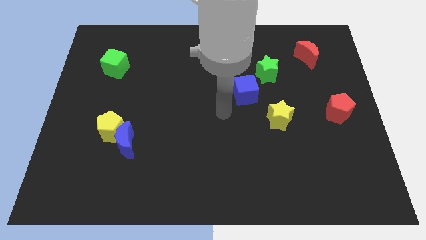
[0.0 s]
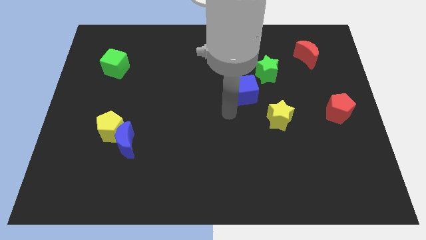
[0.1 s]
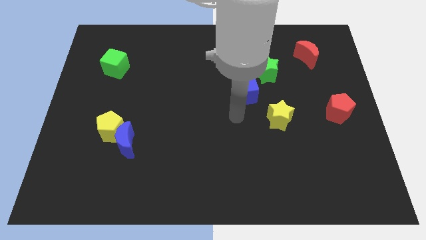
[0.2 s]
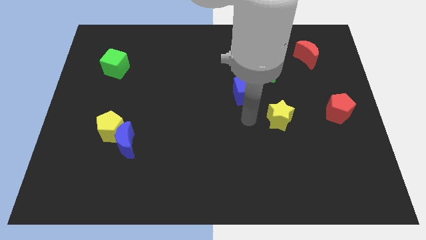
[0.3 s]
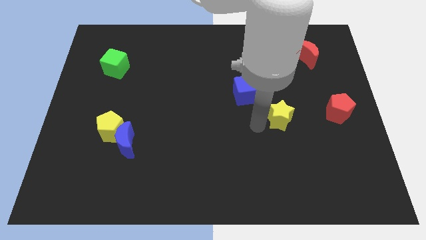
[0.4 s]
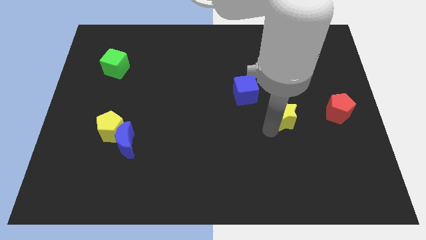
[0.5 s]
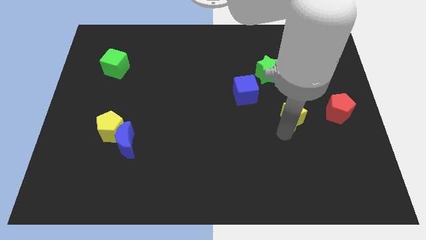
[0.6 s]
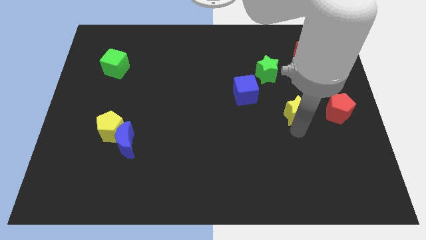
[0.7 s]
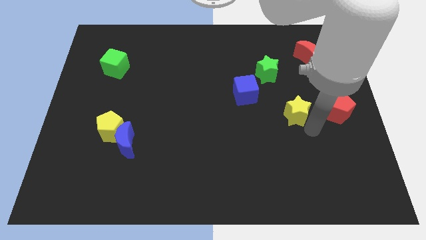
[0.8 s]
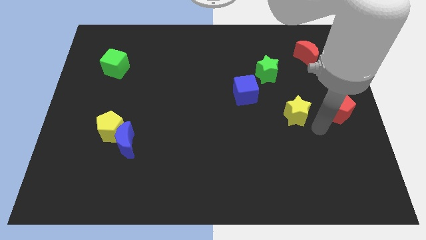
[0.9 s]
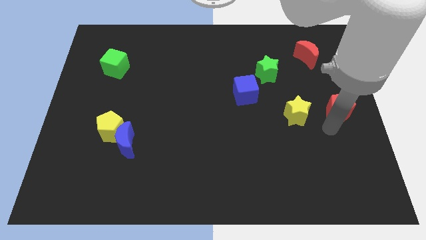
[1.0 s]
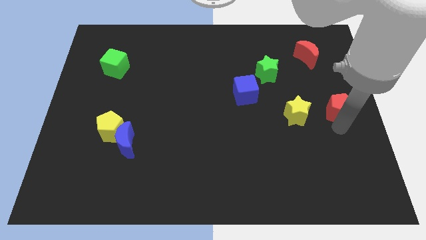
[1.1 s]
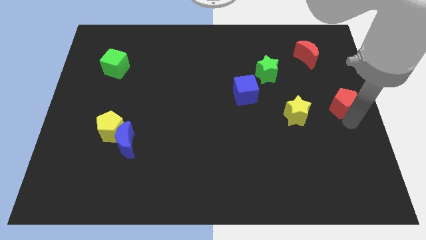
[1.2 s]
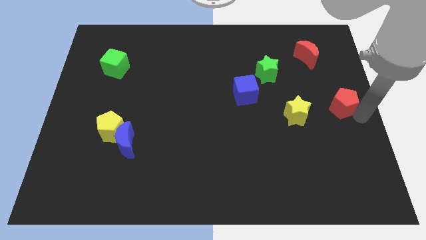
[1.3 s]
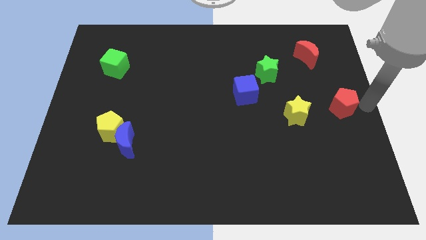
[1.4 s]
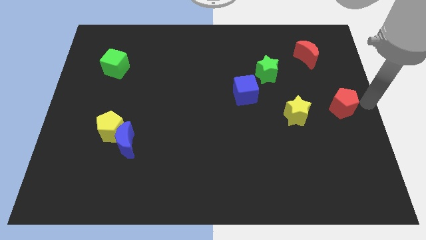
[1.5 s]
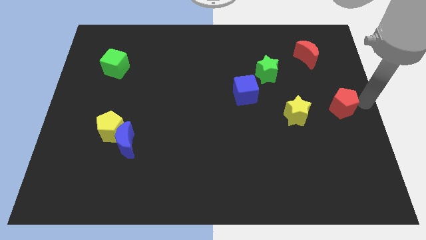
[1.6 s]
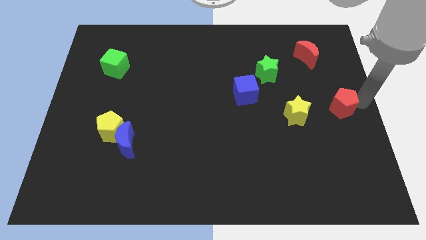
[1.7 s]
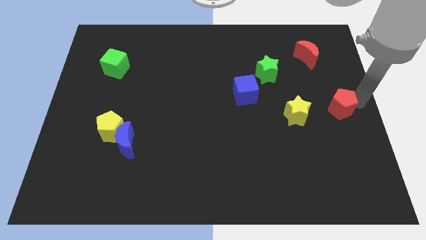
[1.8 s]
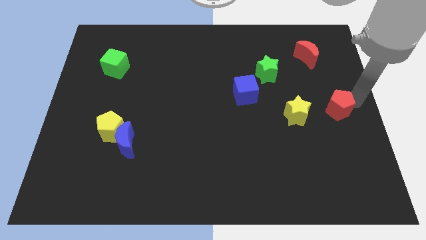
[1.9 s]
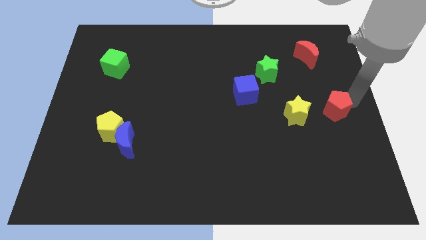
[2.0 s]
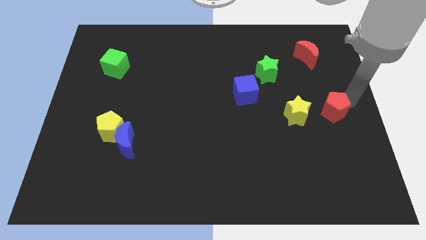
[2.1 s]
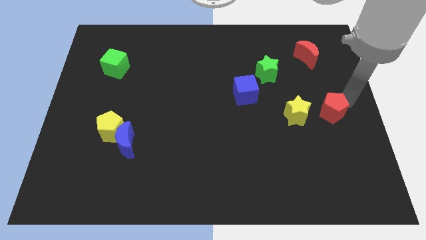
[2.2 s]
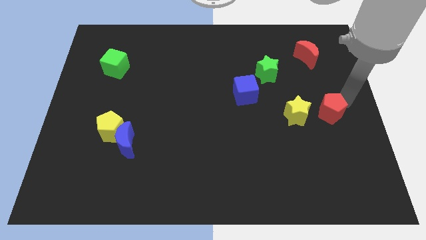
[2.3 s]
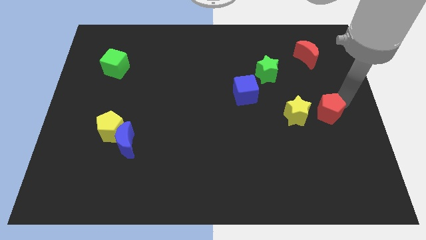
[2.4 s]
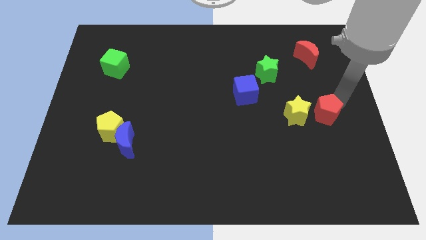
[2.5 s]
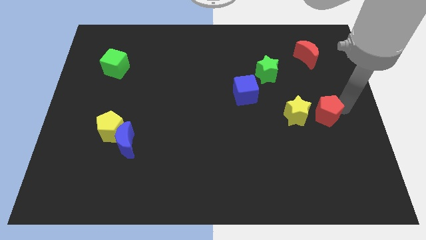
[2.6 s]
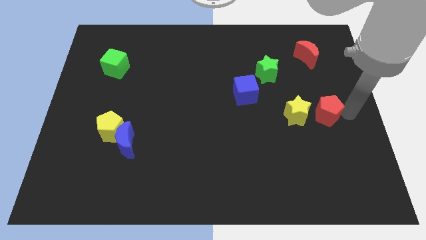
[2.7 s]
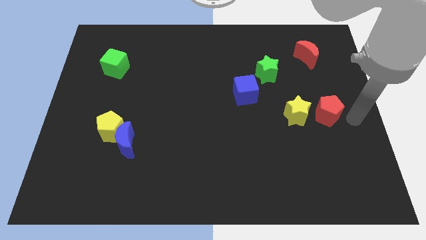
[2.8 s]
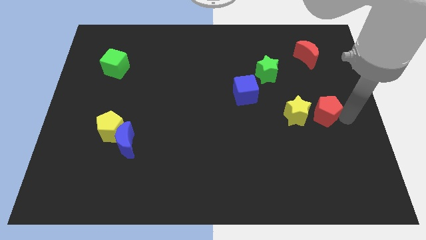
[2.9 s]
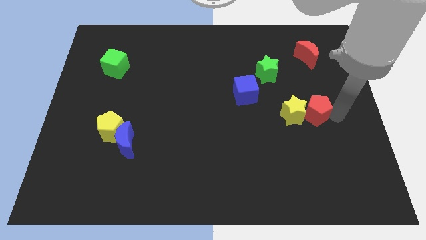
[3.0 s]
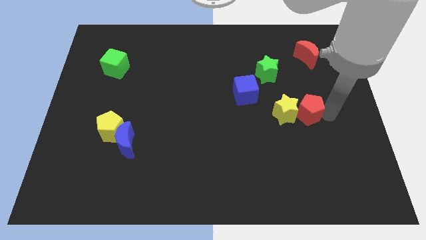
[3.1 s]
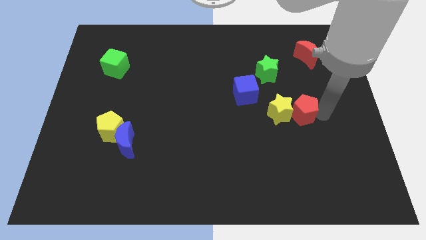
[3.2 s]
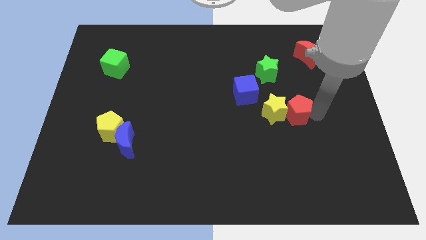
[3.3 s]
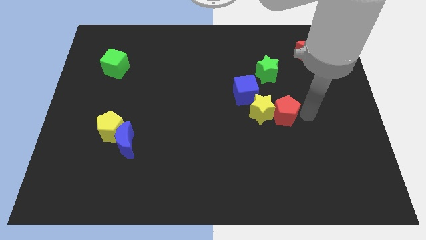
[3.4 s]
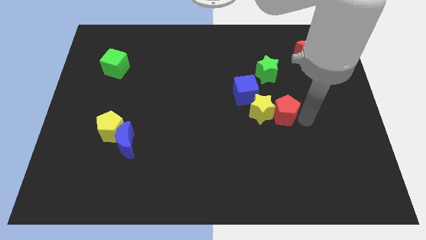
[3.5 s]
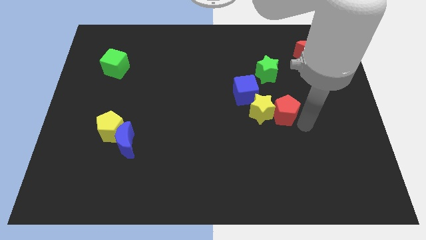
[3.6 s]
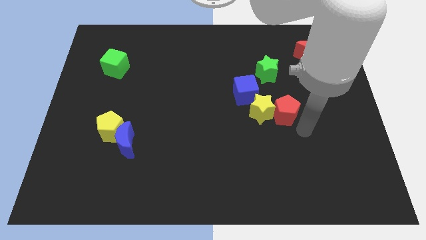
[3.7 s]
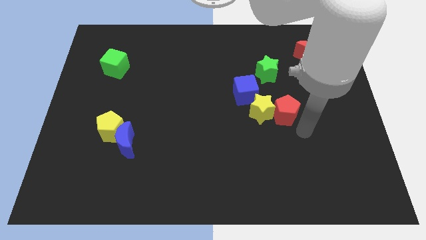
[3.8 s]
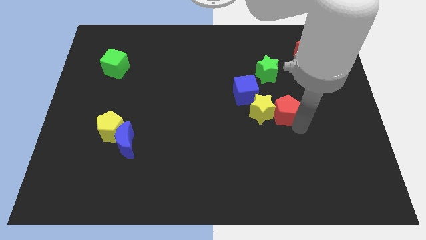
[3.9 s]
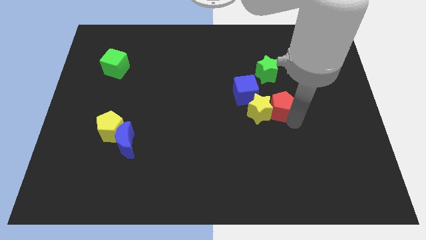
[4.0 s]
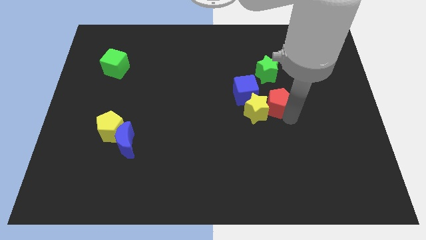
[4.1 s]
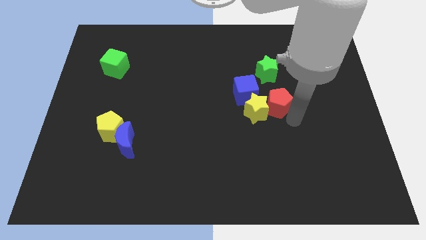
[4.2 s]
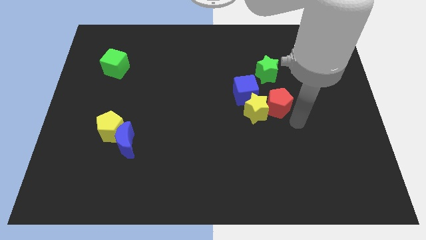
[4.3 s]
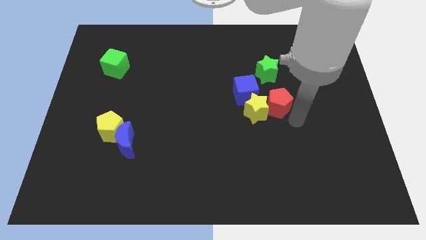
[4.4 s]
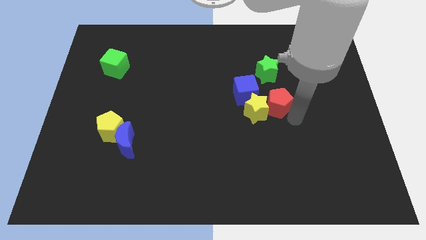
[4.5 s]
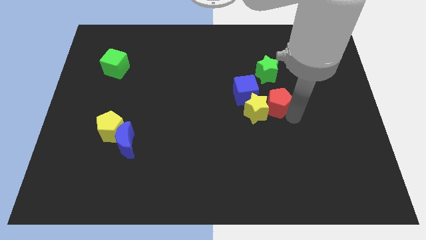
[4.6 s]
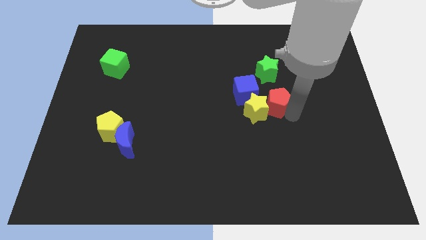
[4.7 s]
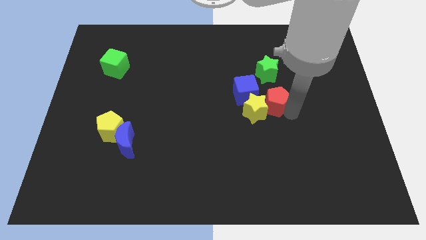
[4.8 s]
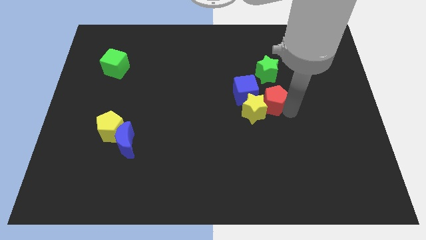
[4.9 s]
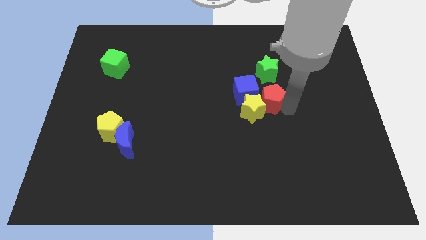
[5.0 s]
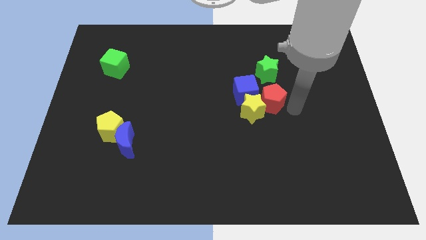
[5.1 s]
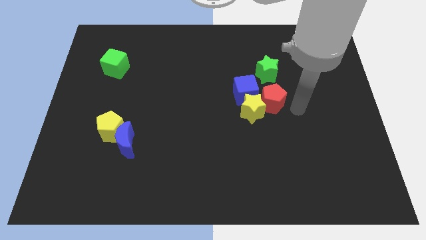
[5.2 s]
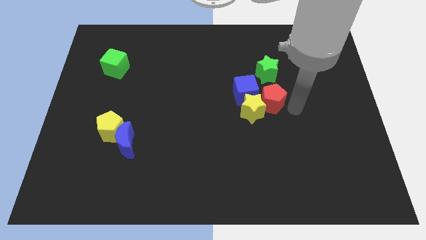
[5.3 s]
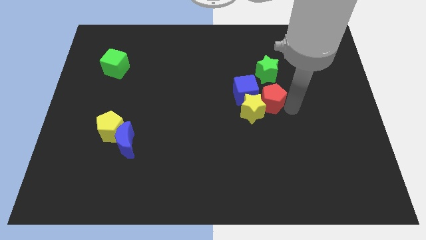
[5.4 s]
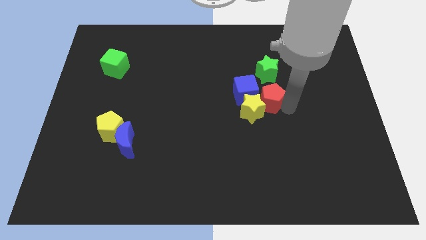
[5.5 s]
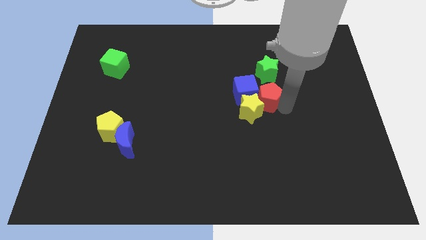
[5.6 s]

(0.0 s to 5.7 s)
slide the red pentagon close to the blue cube

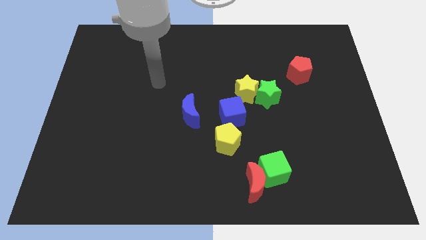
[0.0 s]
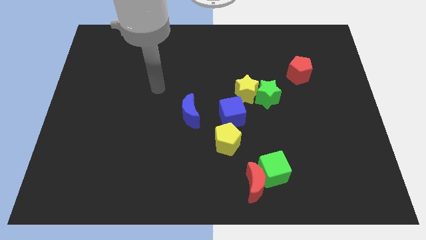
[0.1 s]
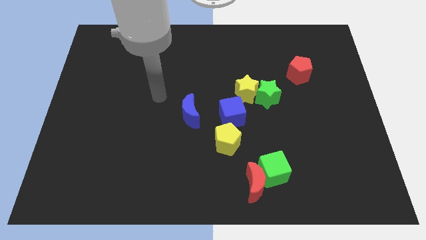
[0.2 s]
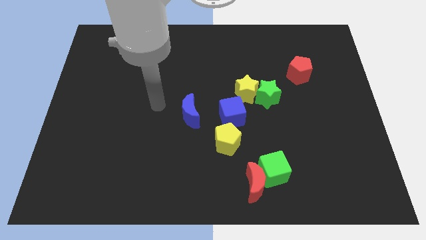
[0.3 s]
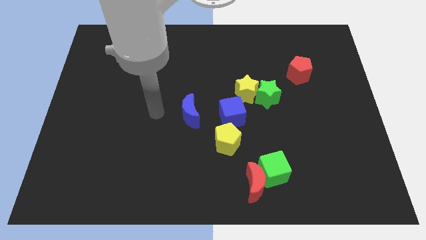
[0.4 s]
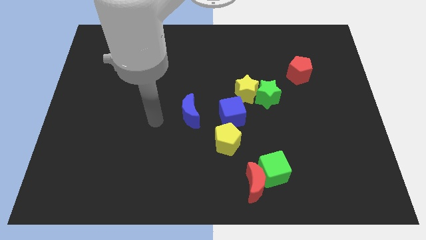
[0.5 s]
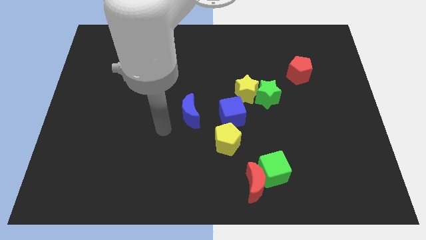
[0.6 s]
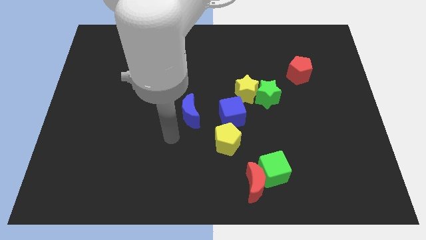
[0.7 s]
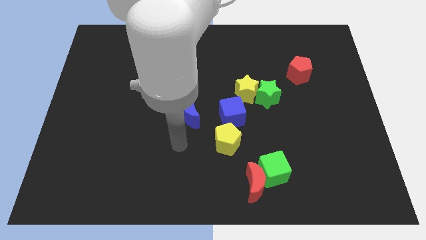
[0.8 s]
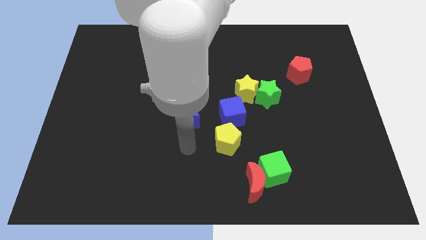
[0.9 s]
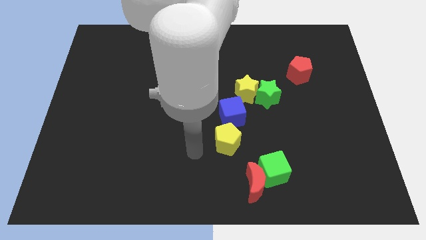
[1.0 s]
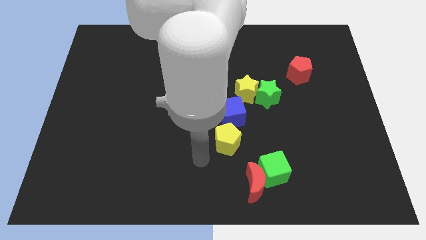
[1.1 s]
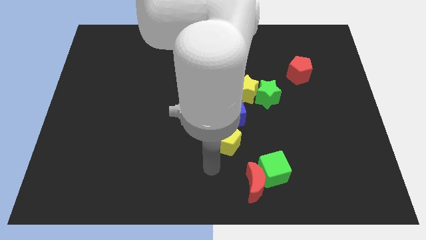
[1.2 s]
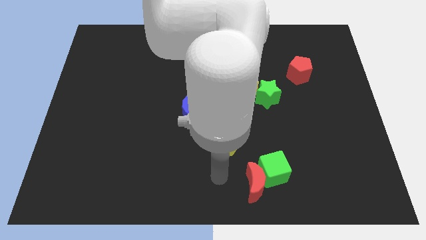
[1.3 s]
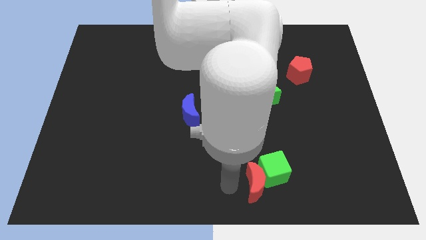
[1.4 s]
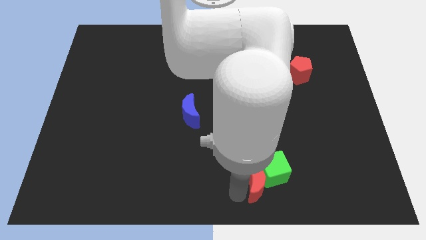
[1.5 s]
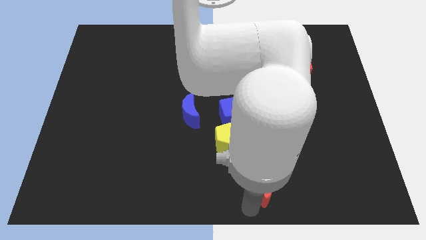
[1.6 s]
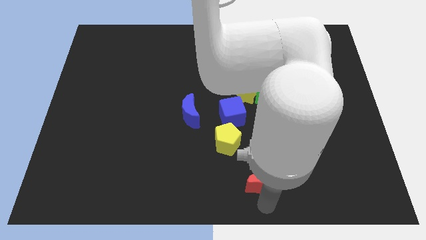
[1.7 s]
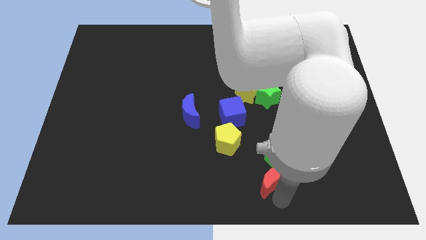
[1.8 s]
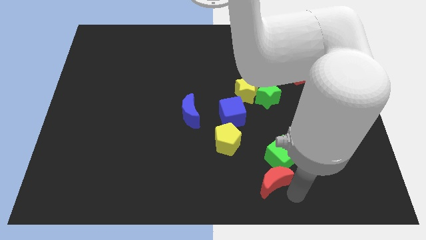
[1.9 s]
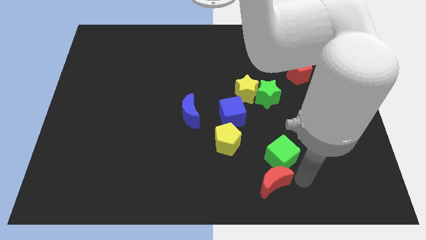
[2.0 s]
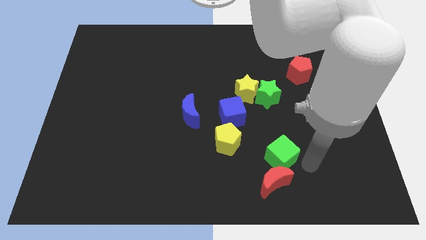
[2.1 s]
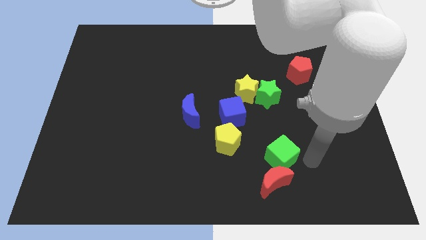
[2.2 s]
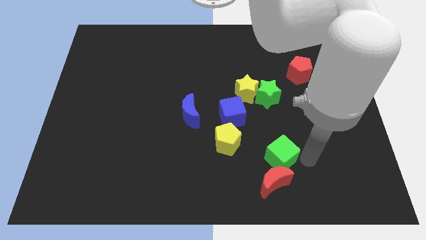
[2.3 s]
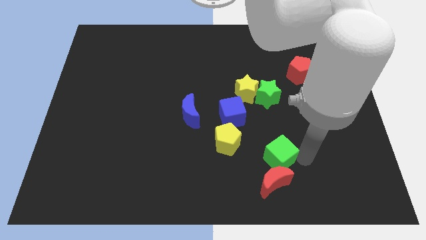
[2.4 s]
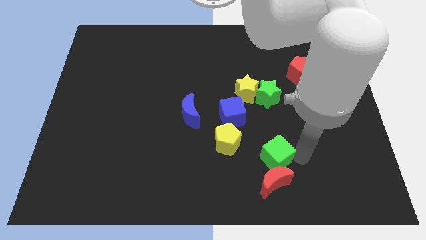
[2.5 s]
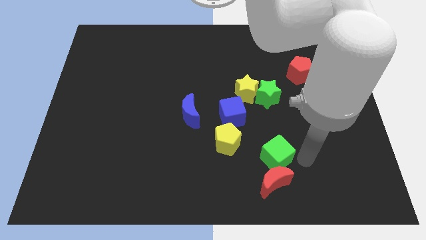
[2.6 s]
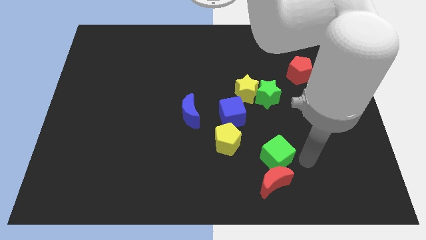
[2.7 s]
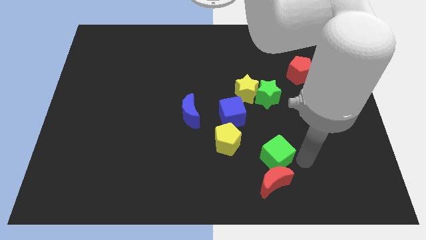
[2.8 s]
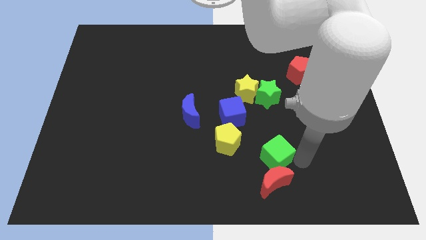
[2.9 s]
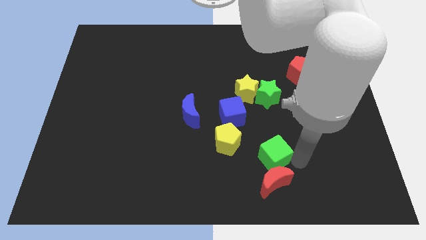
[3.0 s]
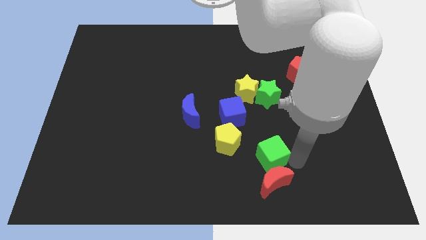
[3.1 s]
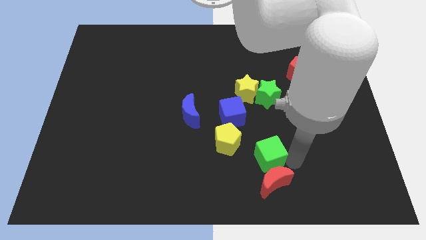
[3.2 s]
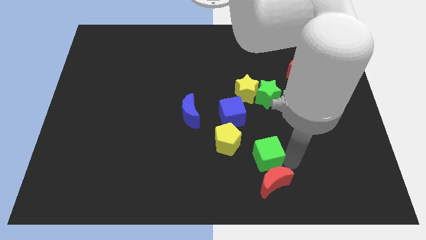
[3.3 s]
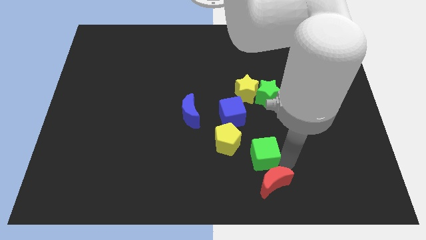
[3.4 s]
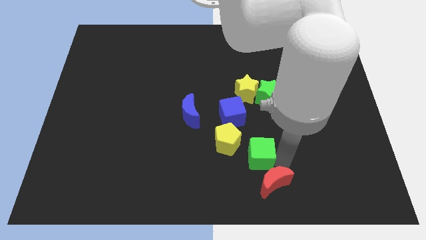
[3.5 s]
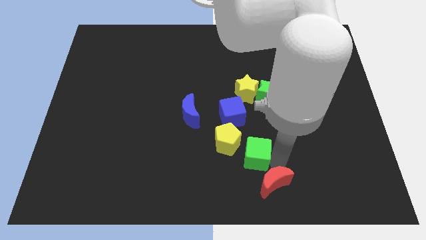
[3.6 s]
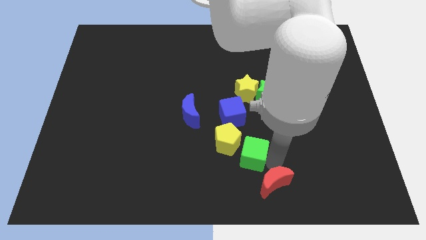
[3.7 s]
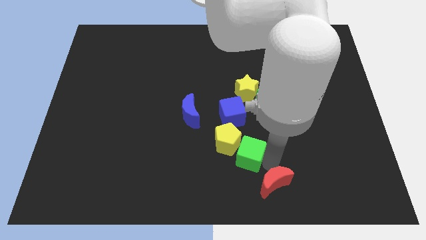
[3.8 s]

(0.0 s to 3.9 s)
move the green cube towards the yellow pentagon
